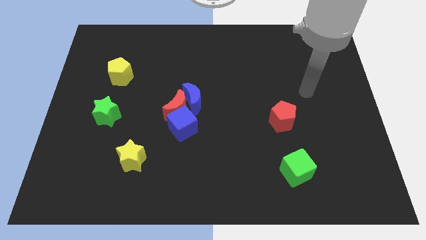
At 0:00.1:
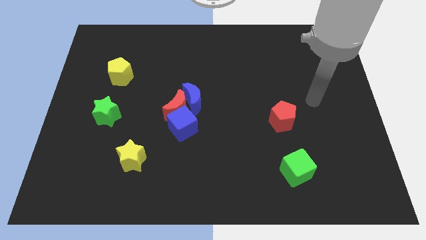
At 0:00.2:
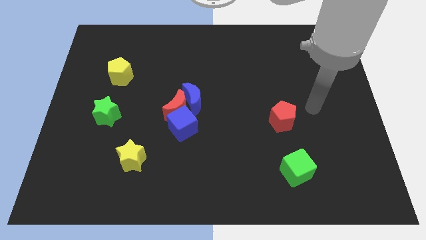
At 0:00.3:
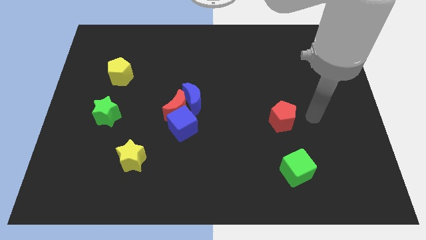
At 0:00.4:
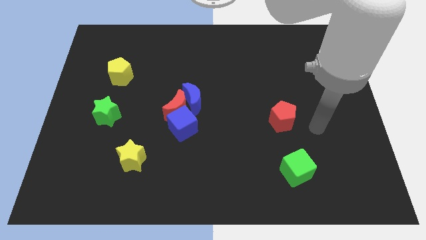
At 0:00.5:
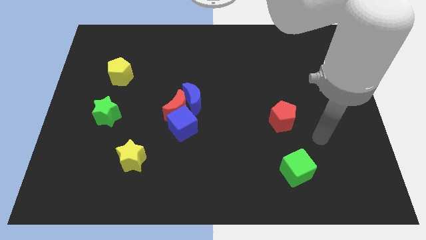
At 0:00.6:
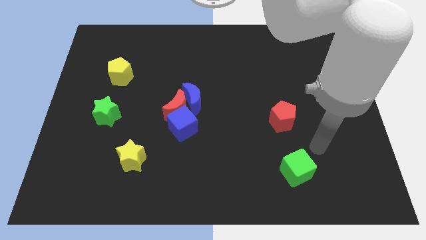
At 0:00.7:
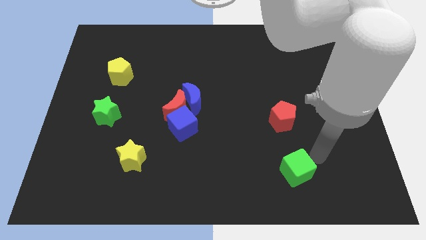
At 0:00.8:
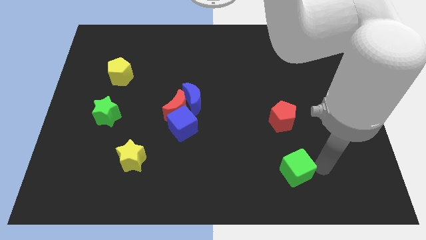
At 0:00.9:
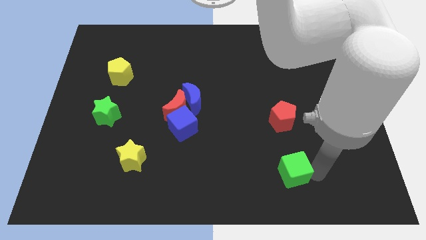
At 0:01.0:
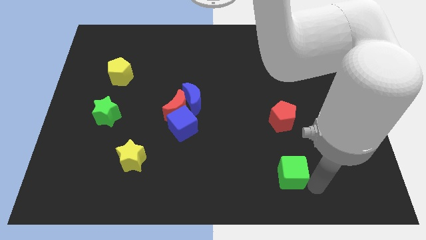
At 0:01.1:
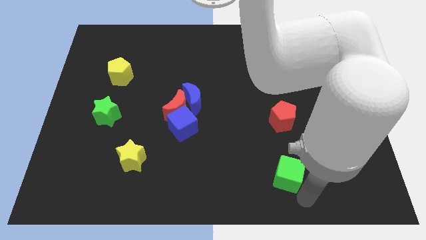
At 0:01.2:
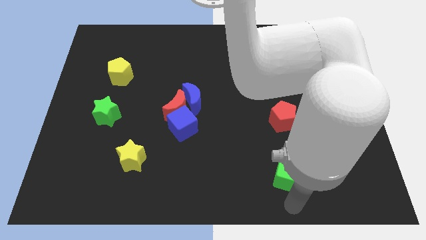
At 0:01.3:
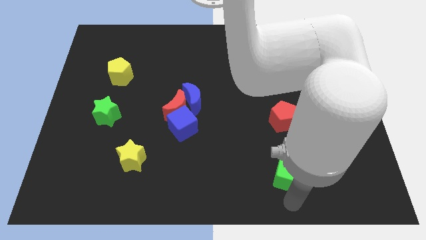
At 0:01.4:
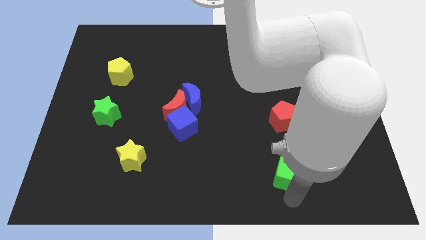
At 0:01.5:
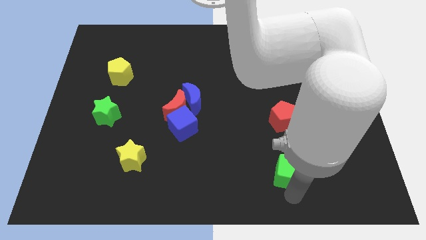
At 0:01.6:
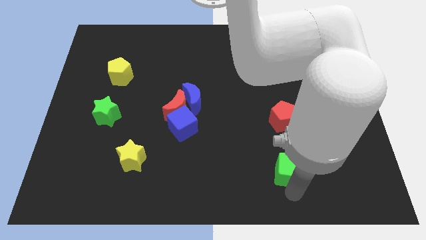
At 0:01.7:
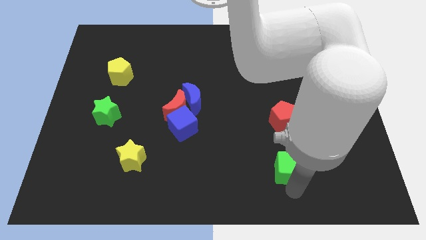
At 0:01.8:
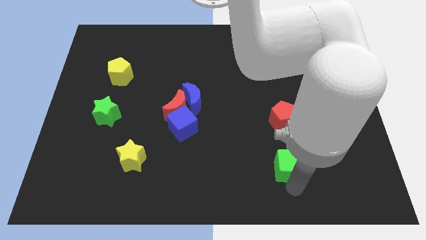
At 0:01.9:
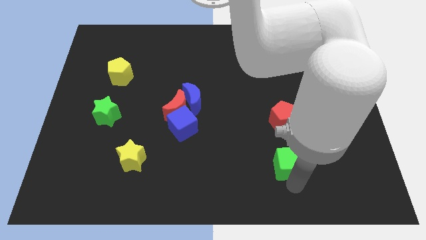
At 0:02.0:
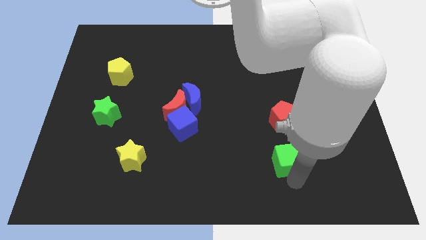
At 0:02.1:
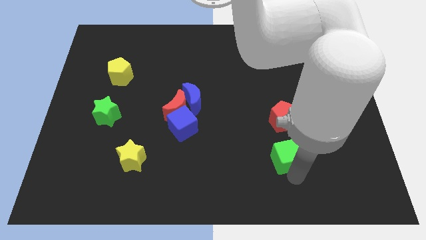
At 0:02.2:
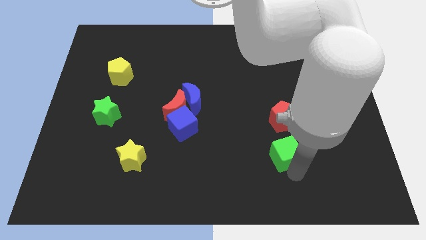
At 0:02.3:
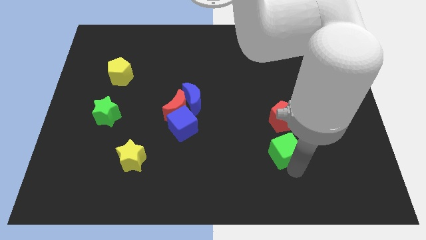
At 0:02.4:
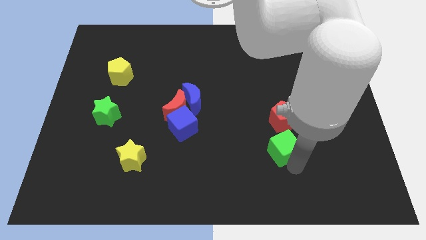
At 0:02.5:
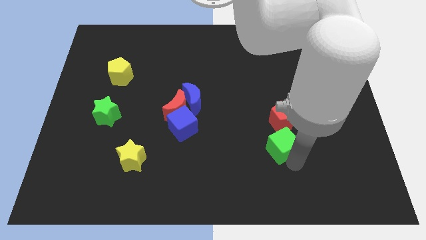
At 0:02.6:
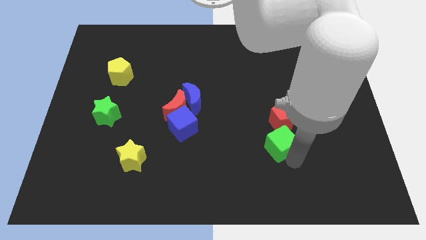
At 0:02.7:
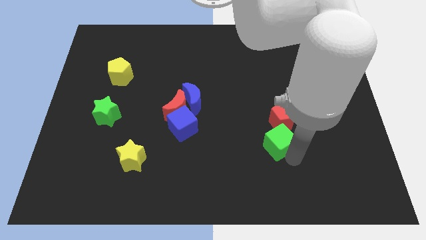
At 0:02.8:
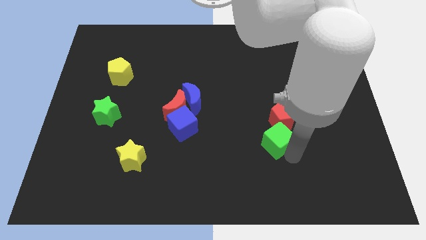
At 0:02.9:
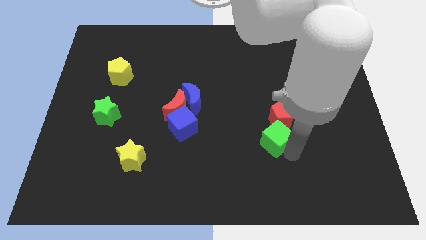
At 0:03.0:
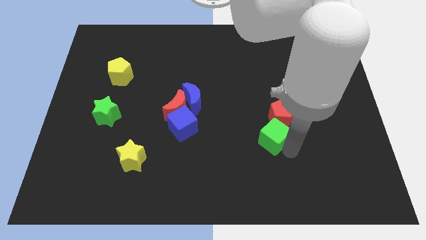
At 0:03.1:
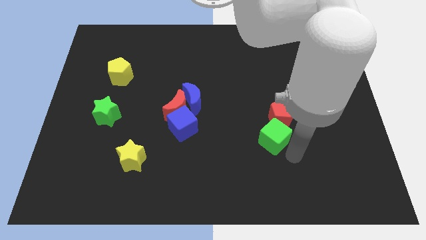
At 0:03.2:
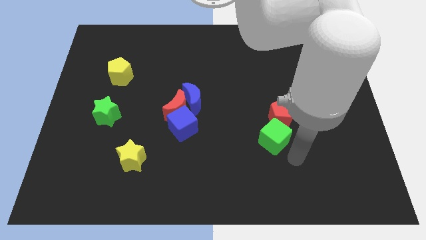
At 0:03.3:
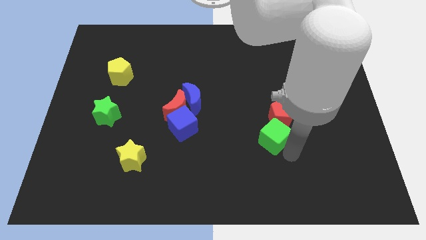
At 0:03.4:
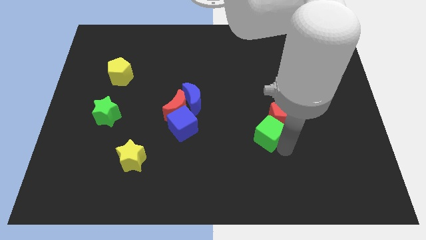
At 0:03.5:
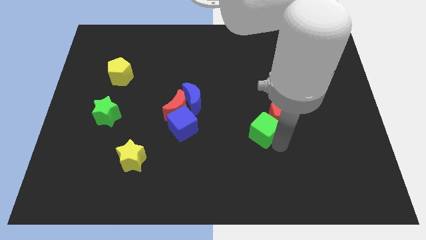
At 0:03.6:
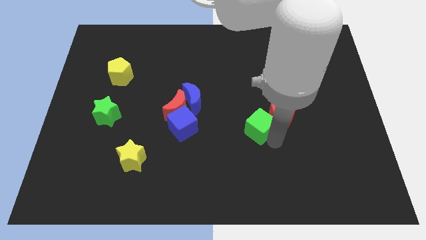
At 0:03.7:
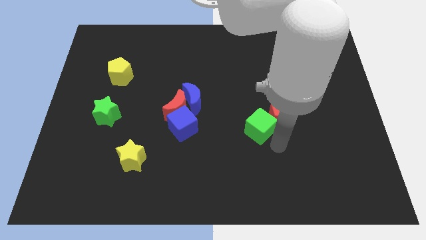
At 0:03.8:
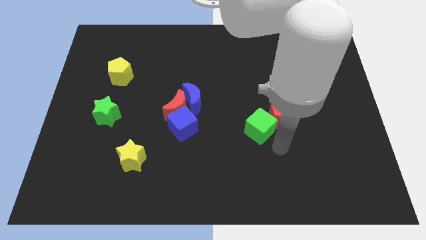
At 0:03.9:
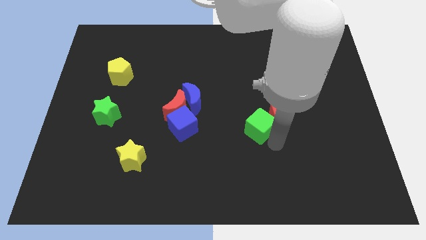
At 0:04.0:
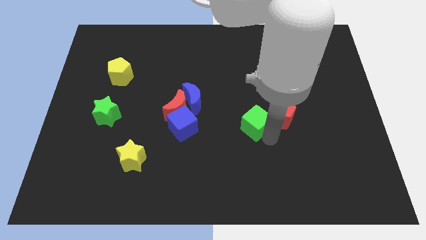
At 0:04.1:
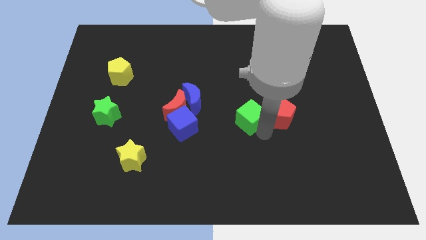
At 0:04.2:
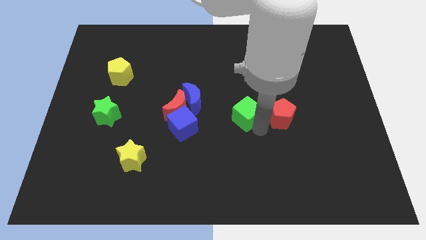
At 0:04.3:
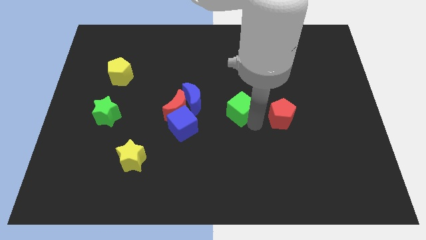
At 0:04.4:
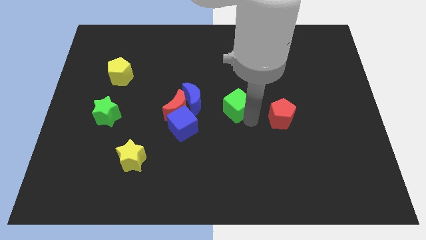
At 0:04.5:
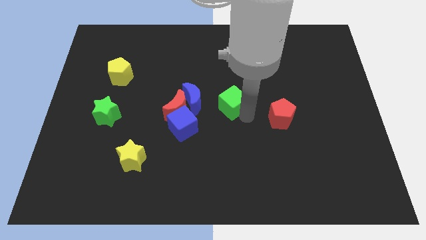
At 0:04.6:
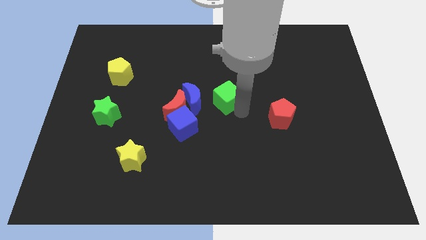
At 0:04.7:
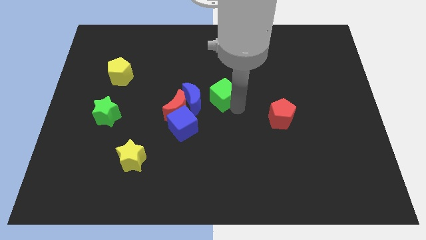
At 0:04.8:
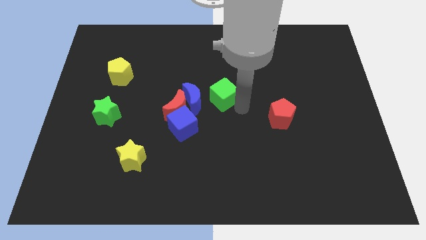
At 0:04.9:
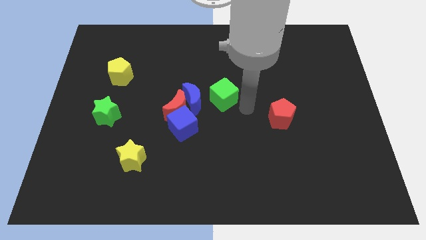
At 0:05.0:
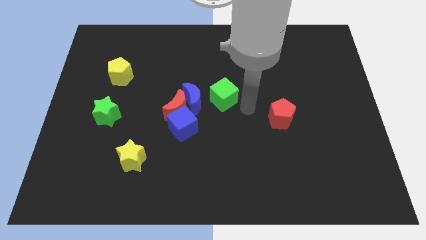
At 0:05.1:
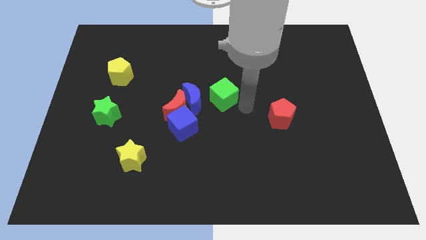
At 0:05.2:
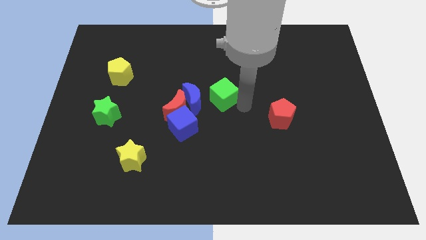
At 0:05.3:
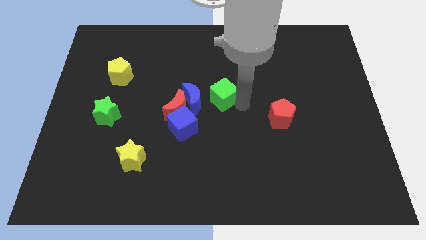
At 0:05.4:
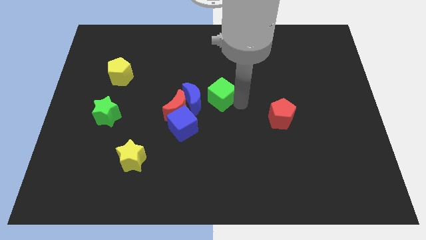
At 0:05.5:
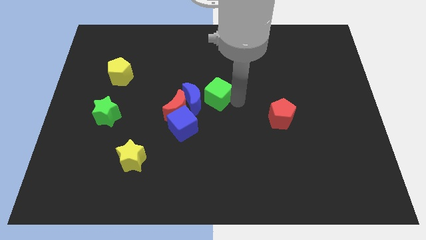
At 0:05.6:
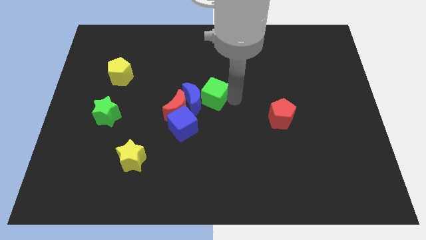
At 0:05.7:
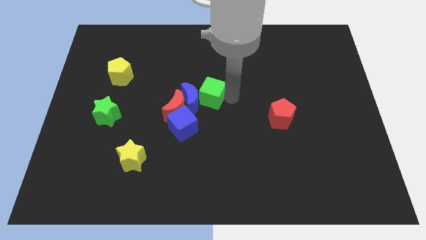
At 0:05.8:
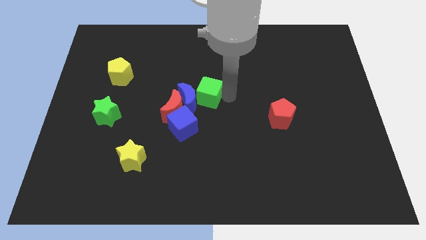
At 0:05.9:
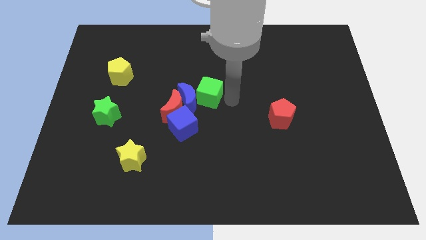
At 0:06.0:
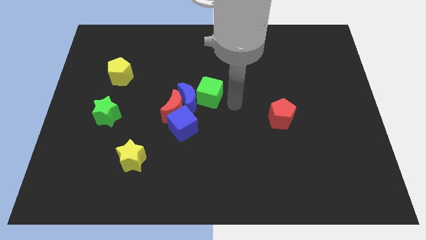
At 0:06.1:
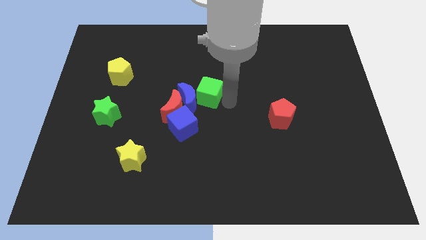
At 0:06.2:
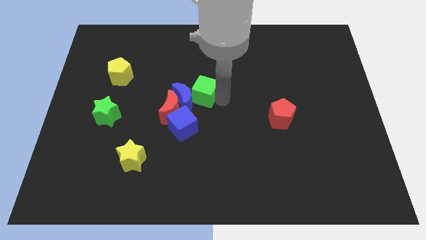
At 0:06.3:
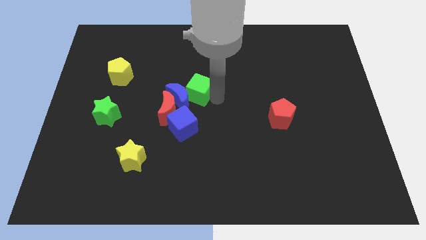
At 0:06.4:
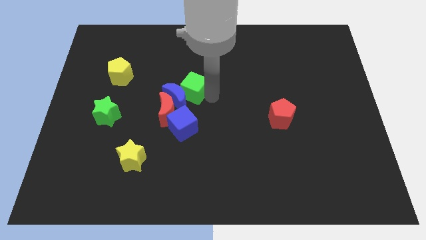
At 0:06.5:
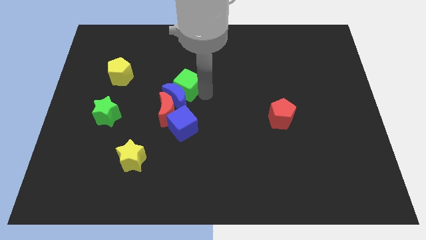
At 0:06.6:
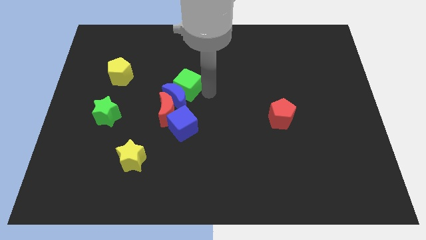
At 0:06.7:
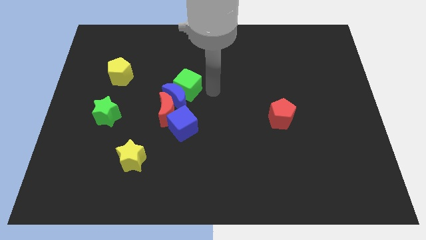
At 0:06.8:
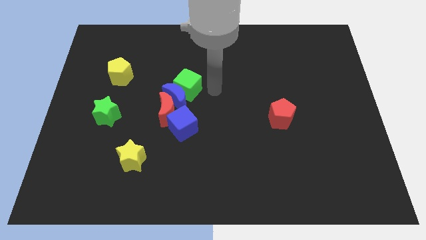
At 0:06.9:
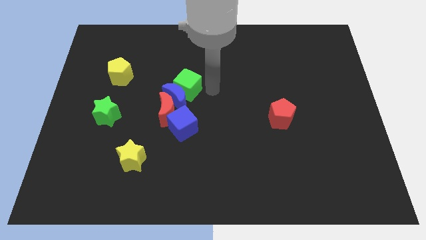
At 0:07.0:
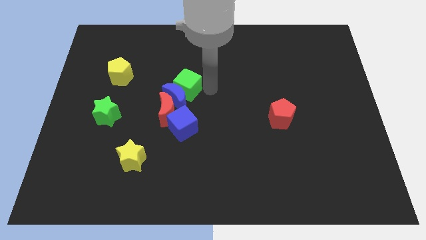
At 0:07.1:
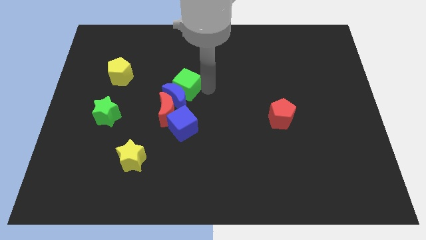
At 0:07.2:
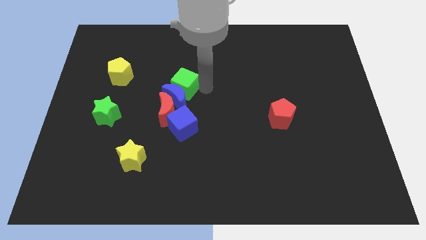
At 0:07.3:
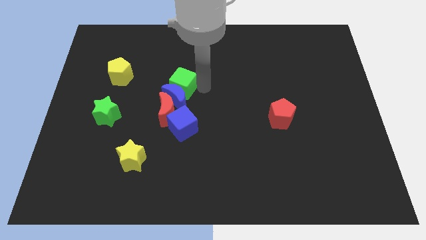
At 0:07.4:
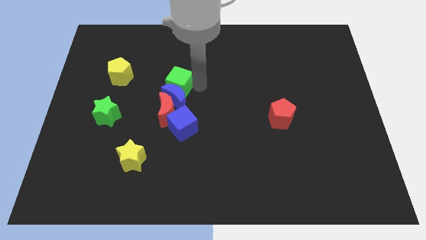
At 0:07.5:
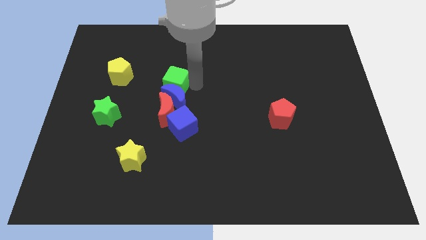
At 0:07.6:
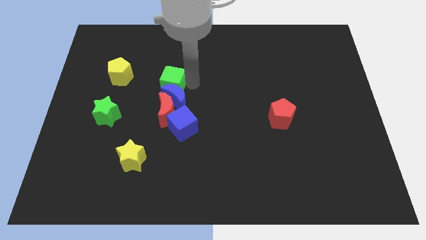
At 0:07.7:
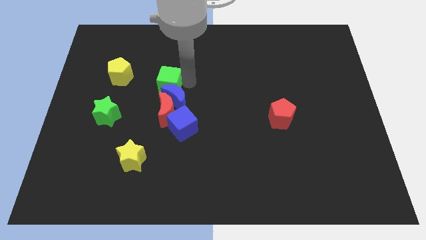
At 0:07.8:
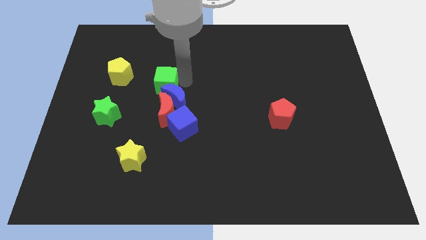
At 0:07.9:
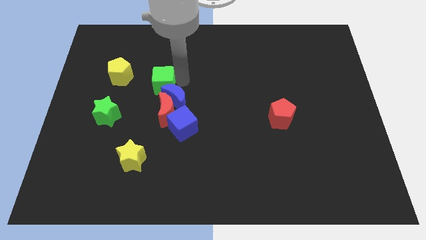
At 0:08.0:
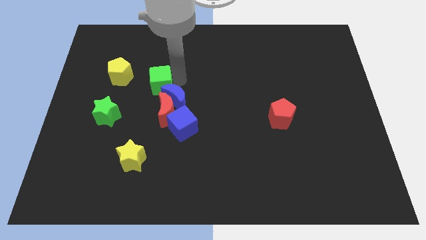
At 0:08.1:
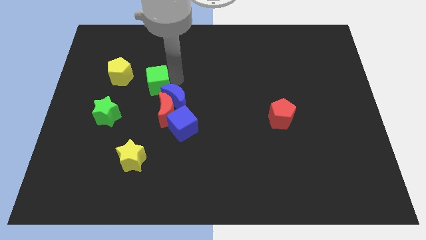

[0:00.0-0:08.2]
move the green cube diagonally down and to the right of the yellow pentagon
